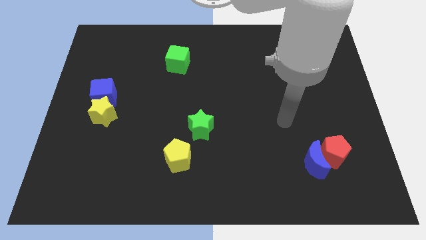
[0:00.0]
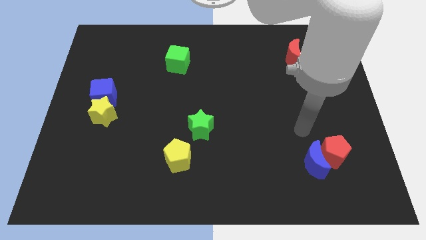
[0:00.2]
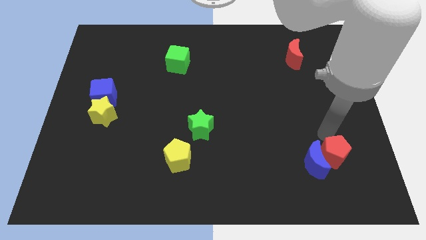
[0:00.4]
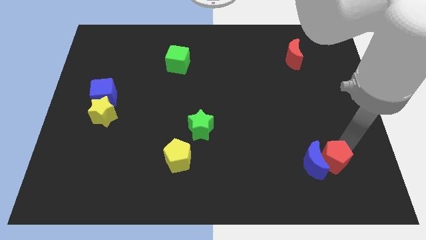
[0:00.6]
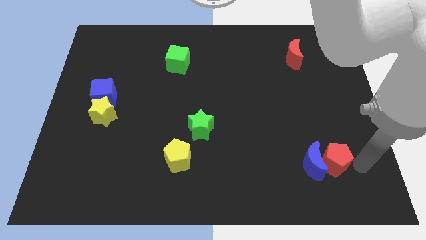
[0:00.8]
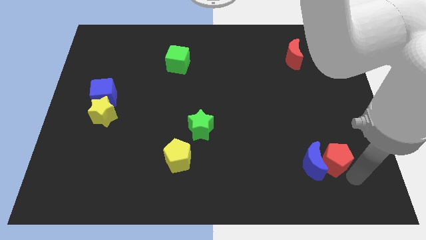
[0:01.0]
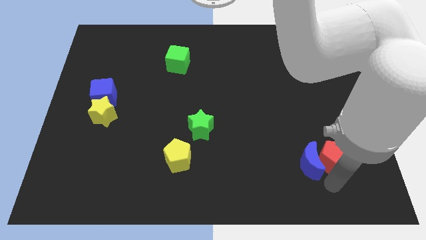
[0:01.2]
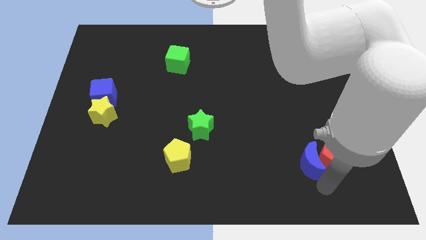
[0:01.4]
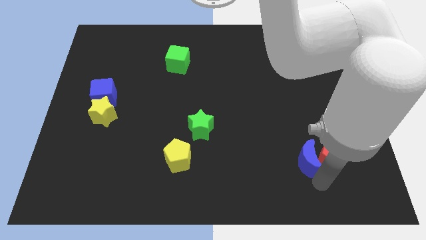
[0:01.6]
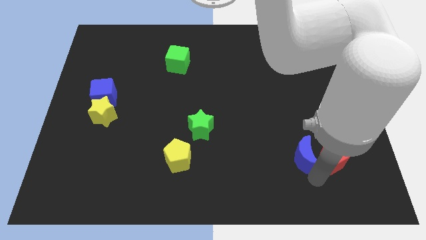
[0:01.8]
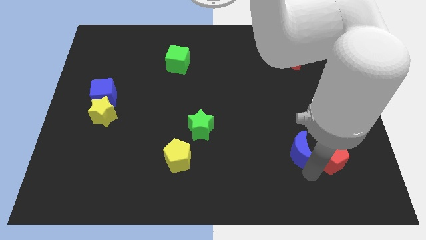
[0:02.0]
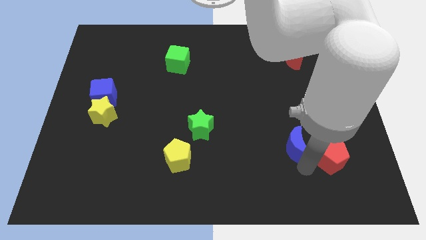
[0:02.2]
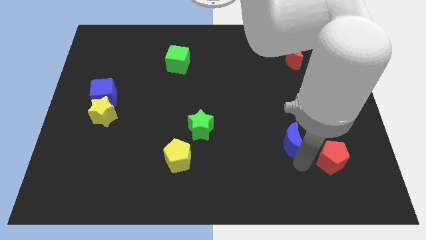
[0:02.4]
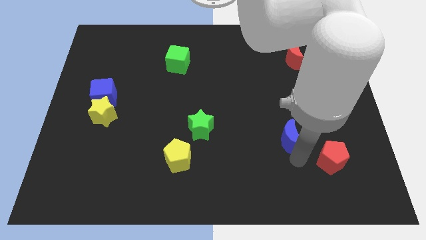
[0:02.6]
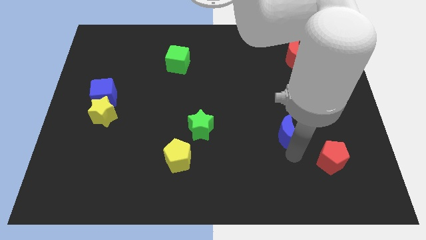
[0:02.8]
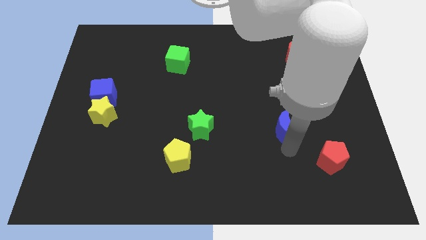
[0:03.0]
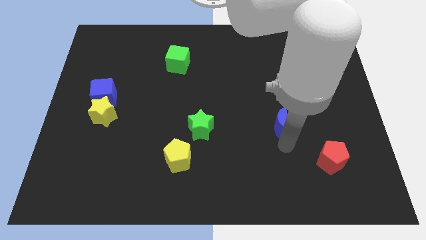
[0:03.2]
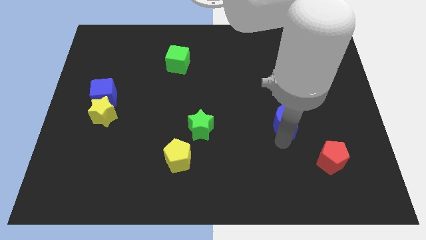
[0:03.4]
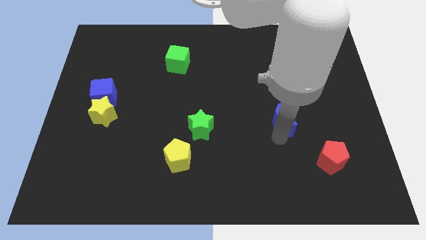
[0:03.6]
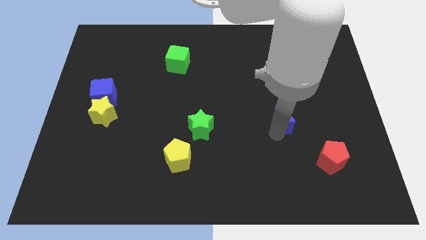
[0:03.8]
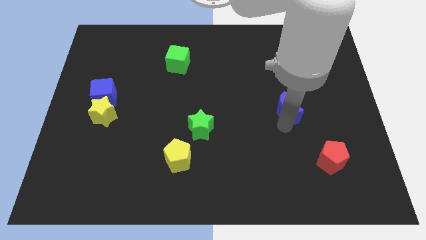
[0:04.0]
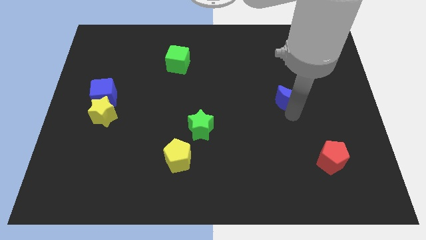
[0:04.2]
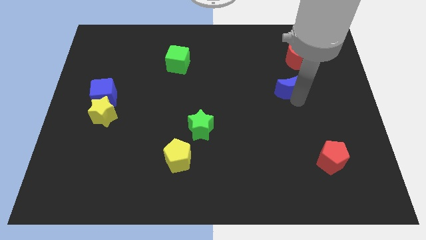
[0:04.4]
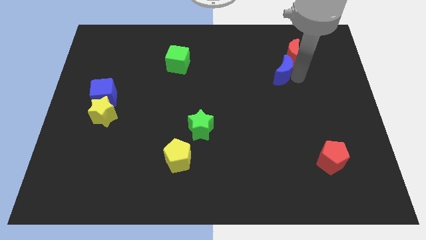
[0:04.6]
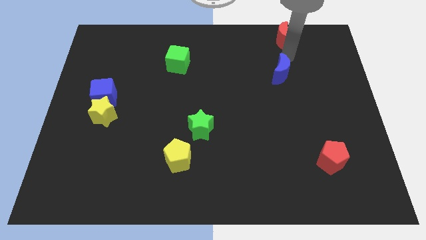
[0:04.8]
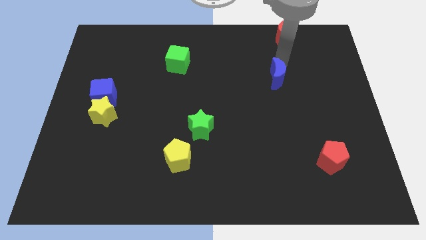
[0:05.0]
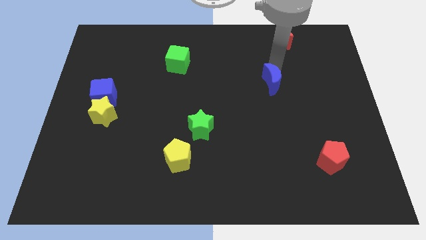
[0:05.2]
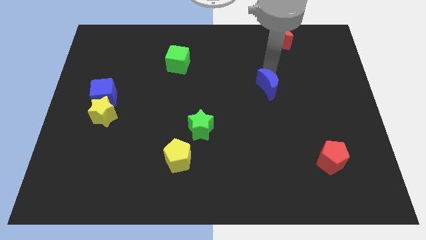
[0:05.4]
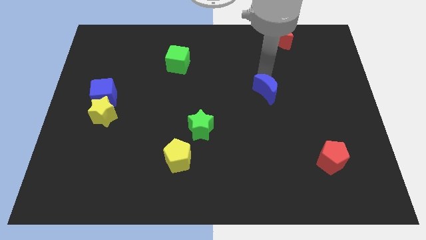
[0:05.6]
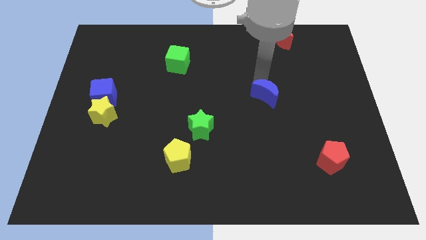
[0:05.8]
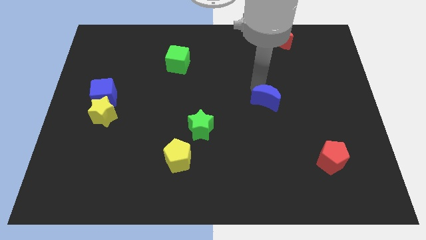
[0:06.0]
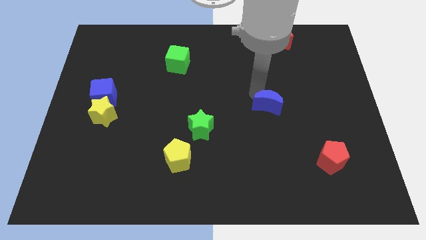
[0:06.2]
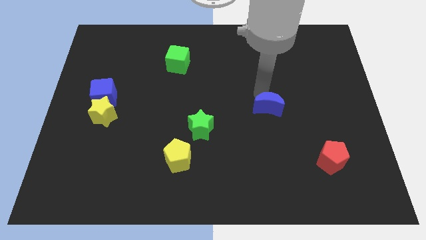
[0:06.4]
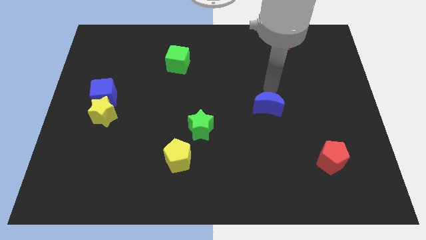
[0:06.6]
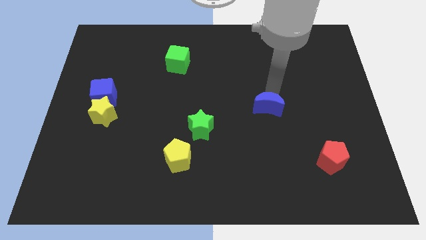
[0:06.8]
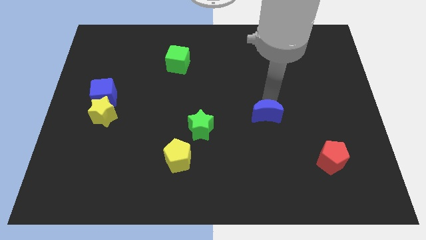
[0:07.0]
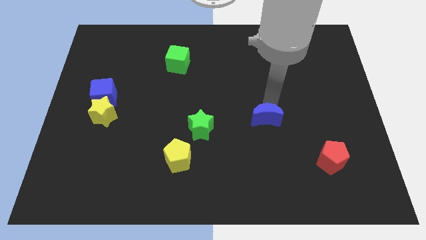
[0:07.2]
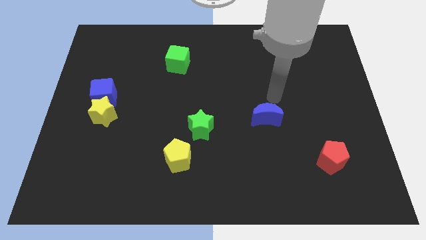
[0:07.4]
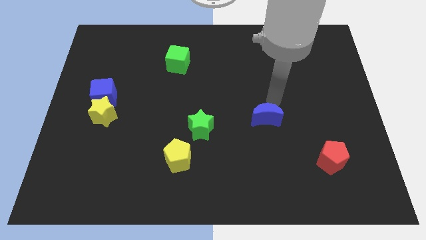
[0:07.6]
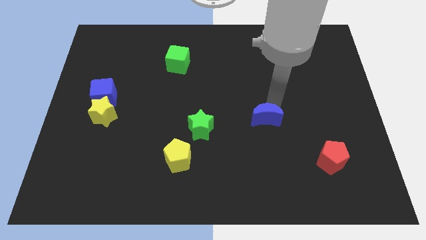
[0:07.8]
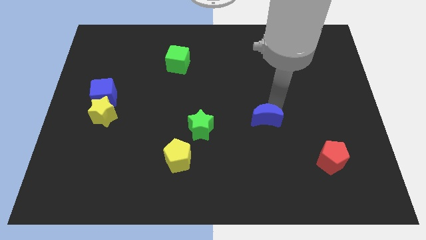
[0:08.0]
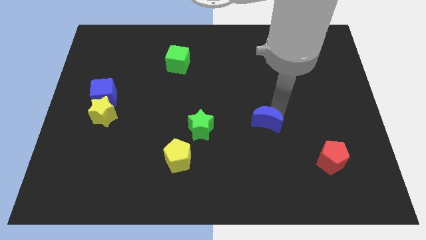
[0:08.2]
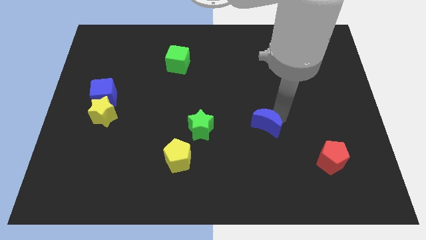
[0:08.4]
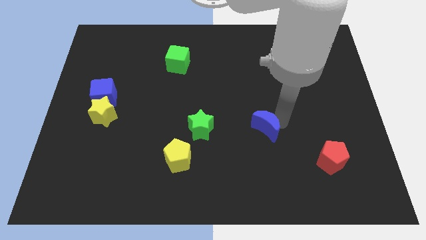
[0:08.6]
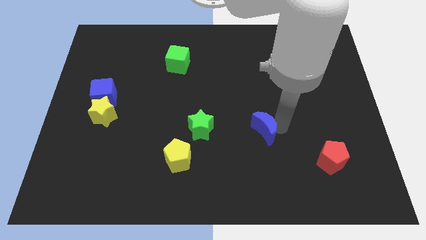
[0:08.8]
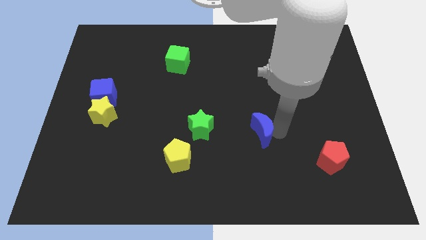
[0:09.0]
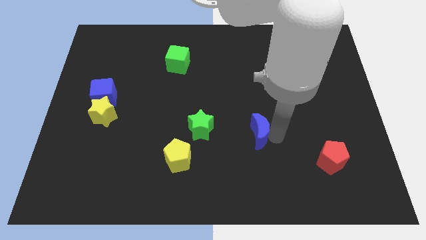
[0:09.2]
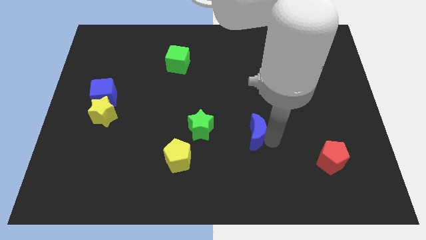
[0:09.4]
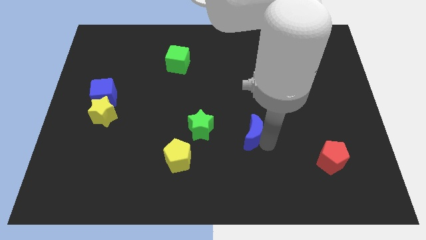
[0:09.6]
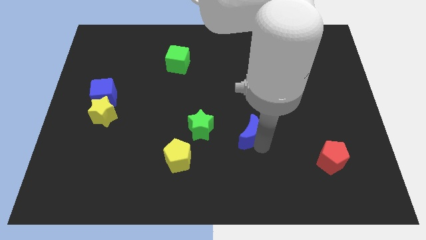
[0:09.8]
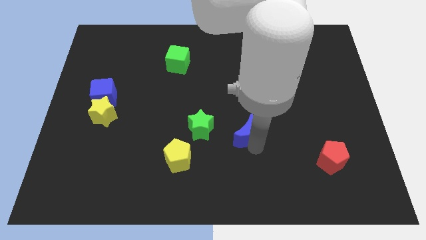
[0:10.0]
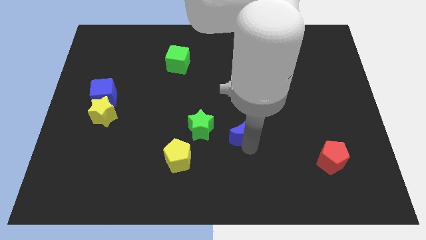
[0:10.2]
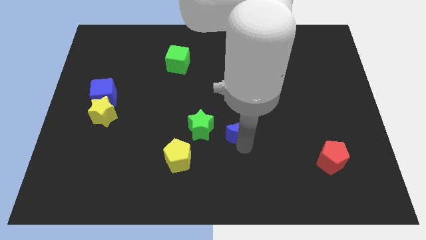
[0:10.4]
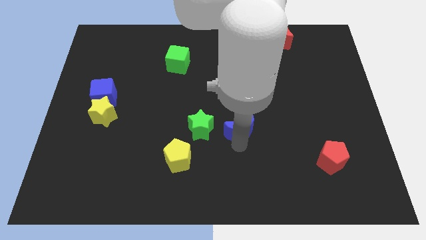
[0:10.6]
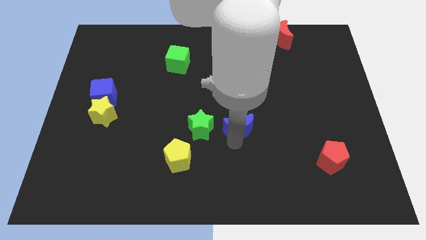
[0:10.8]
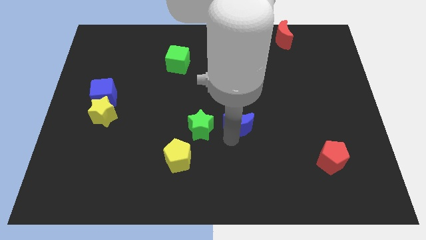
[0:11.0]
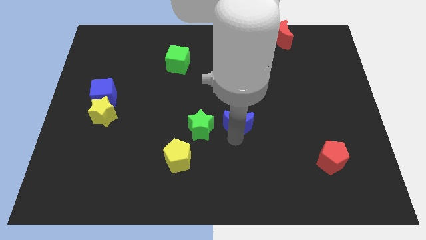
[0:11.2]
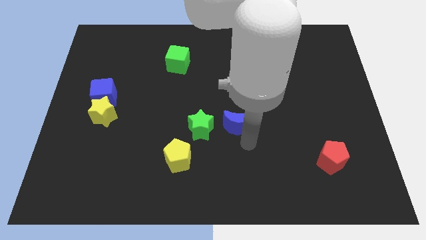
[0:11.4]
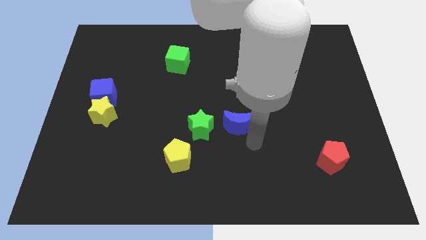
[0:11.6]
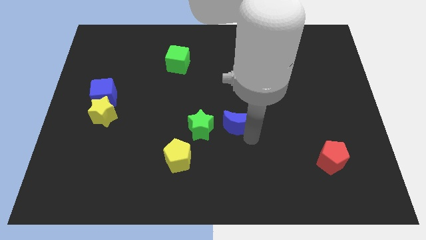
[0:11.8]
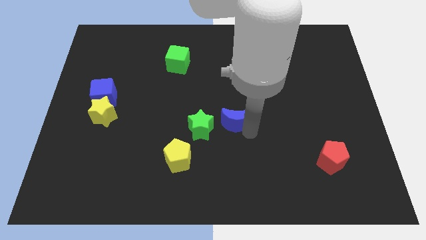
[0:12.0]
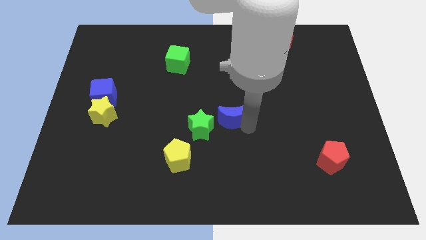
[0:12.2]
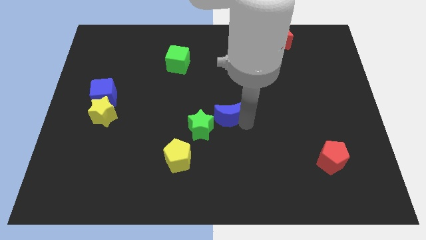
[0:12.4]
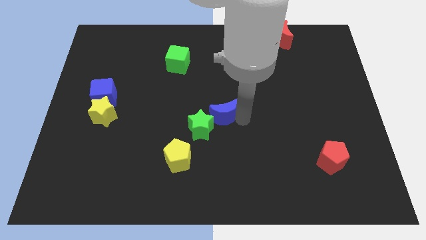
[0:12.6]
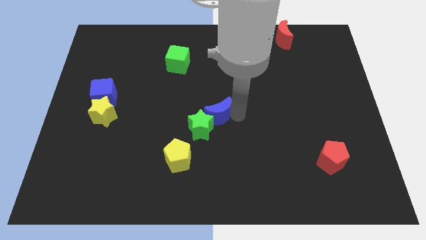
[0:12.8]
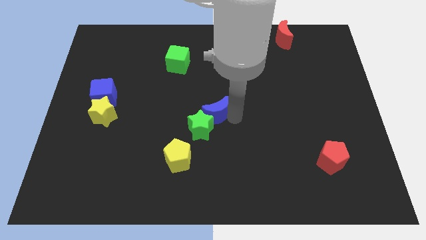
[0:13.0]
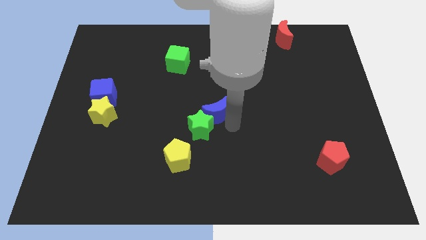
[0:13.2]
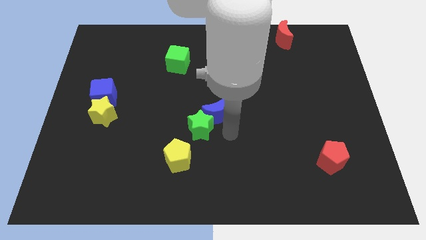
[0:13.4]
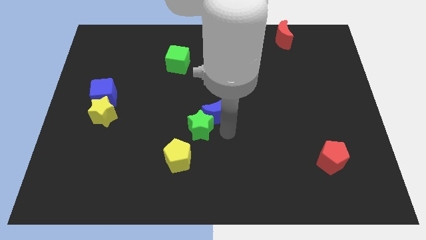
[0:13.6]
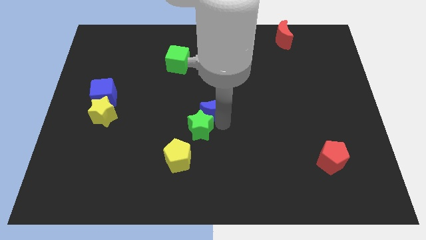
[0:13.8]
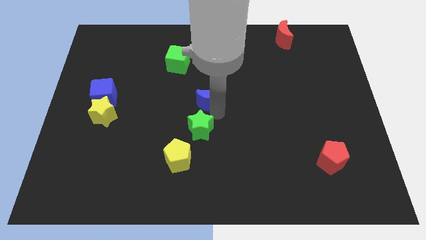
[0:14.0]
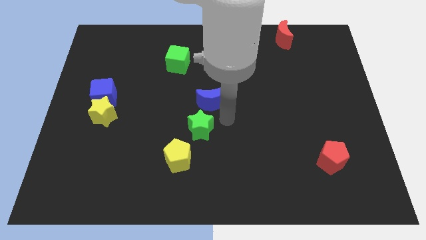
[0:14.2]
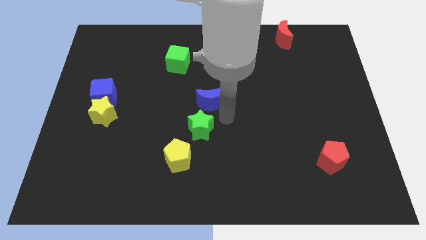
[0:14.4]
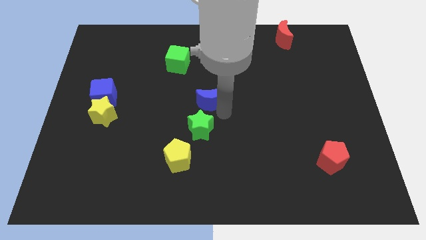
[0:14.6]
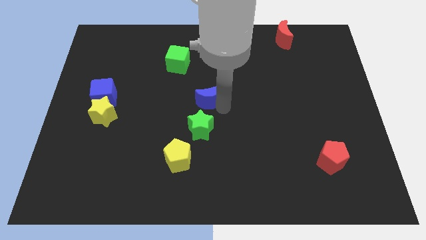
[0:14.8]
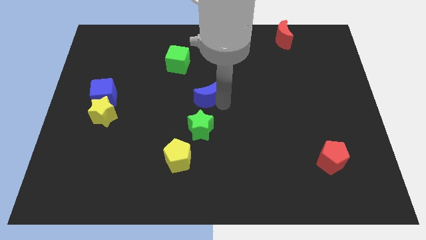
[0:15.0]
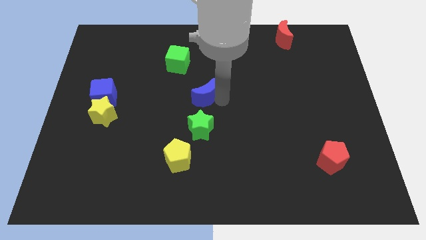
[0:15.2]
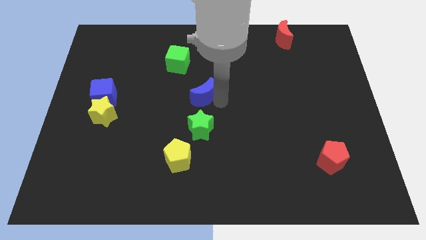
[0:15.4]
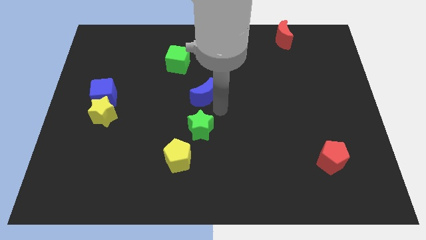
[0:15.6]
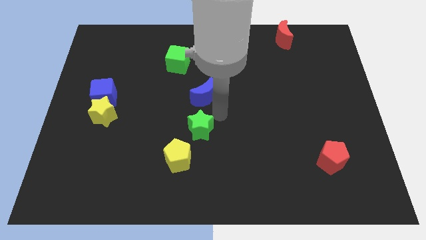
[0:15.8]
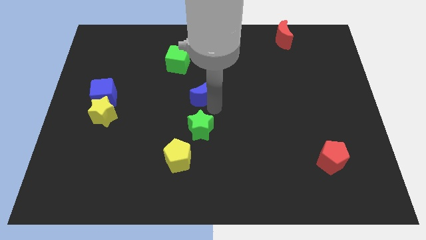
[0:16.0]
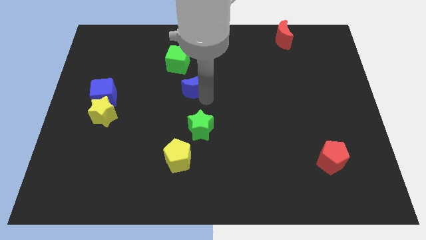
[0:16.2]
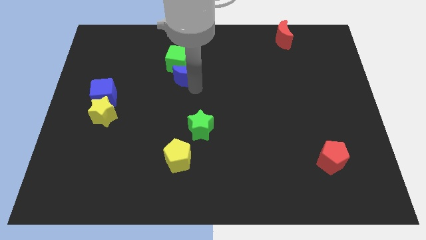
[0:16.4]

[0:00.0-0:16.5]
slide the blue moon next to the green cube
